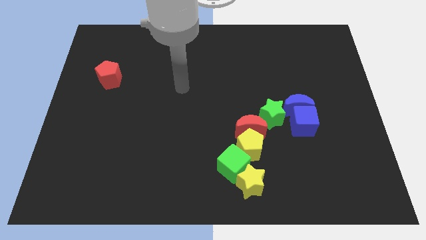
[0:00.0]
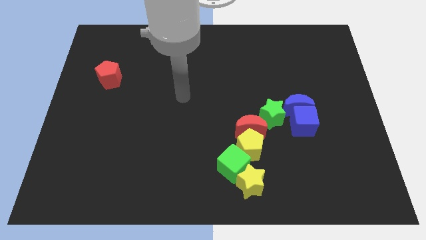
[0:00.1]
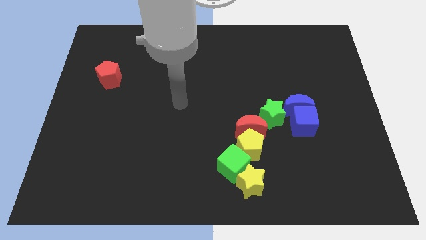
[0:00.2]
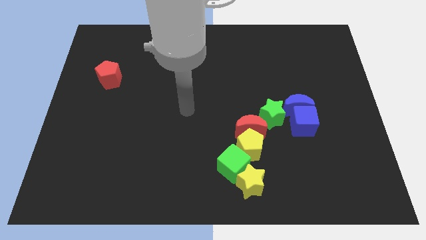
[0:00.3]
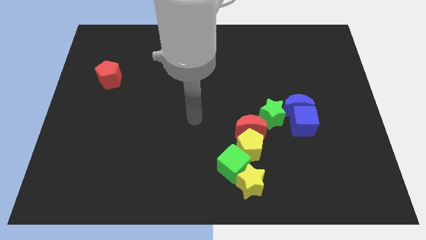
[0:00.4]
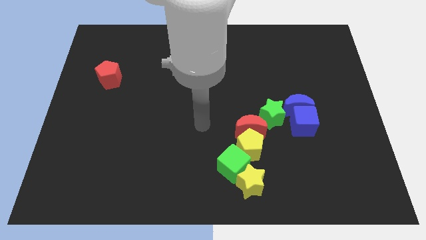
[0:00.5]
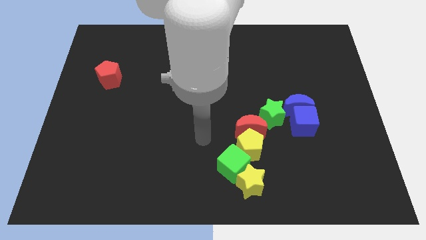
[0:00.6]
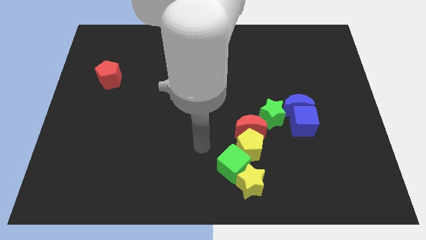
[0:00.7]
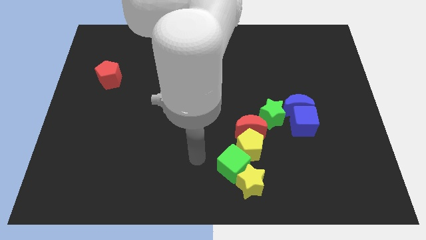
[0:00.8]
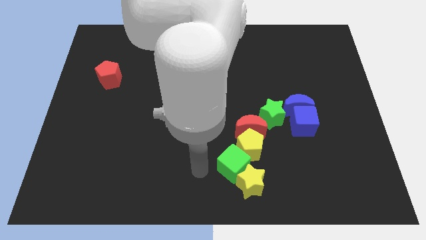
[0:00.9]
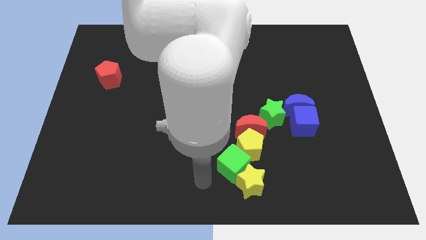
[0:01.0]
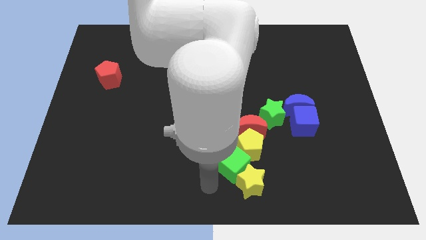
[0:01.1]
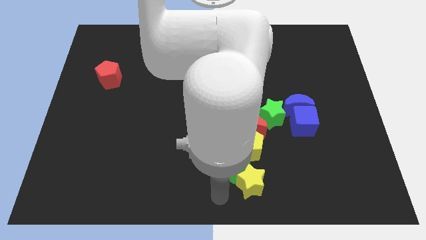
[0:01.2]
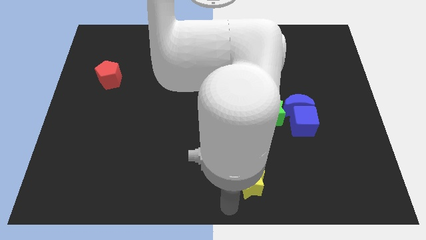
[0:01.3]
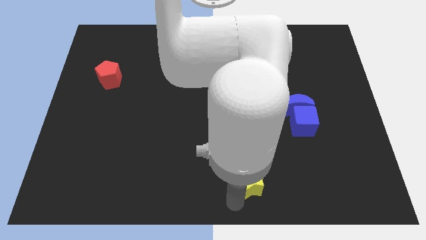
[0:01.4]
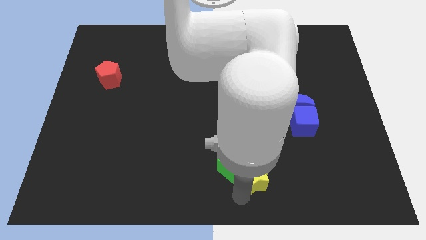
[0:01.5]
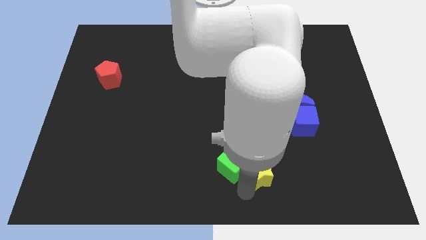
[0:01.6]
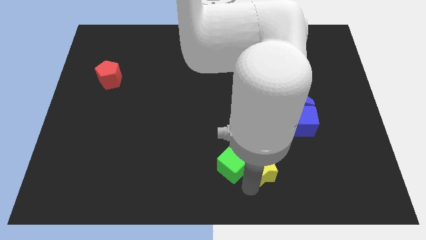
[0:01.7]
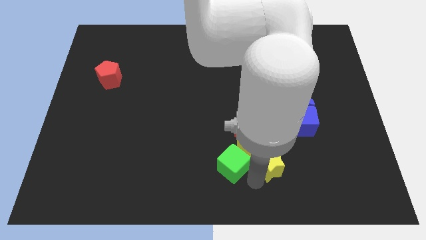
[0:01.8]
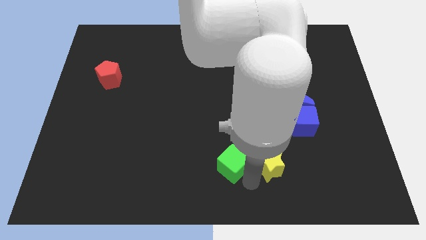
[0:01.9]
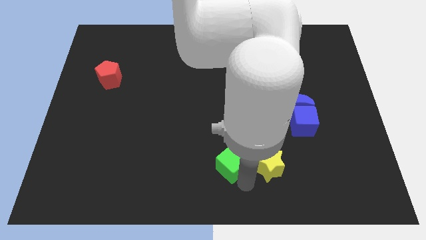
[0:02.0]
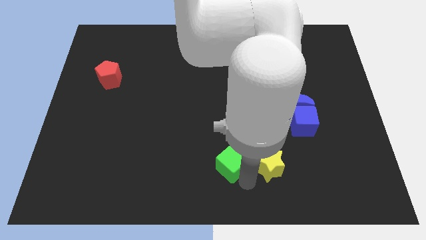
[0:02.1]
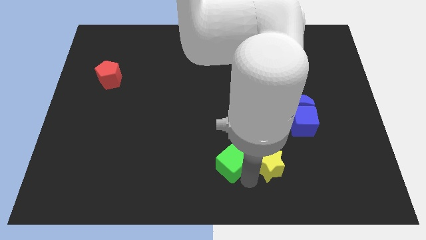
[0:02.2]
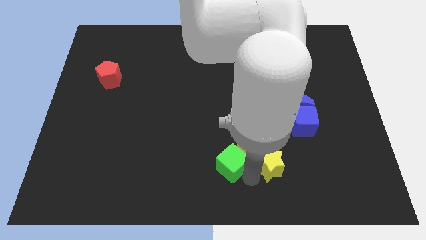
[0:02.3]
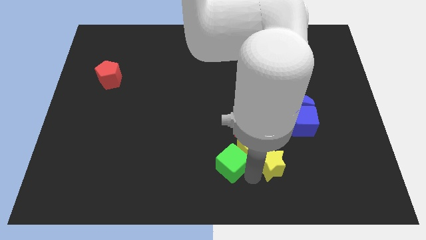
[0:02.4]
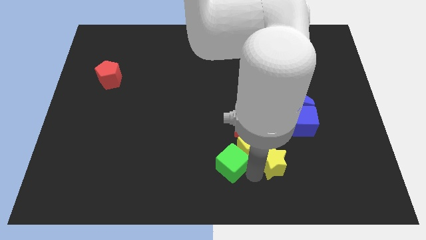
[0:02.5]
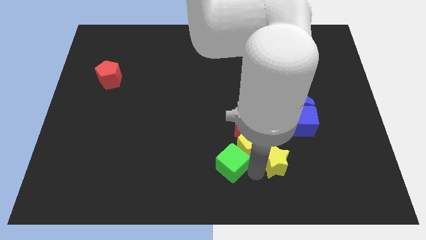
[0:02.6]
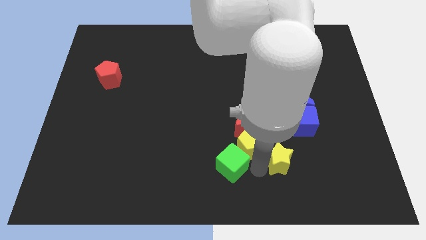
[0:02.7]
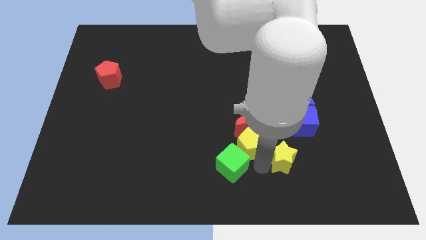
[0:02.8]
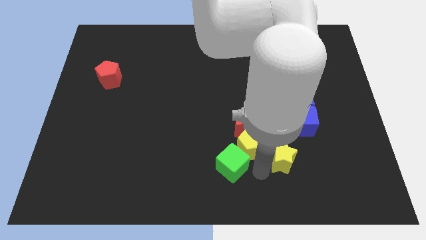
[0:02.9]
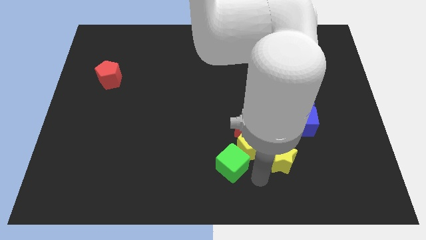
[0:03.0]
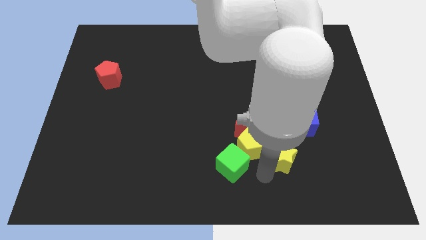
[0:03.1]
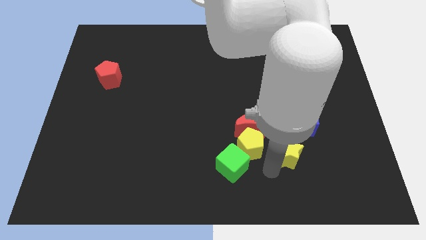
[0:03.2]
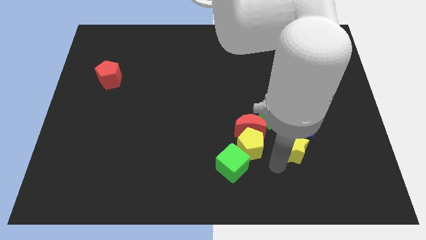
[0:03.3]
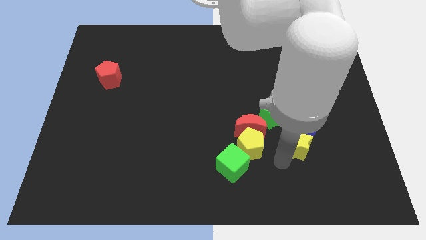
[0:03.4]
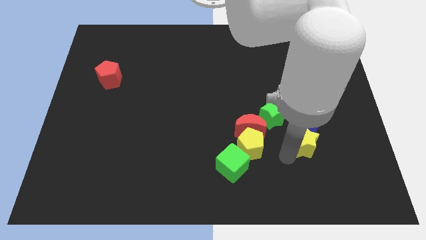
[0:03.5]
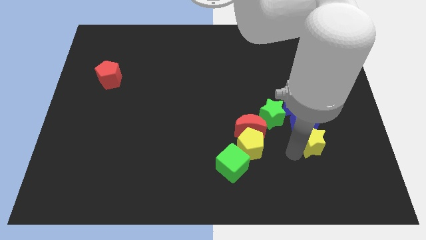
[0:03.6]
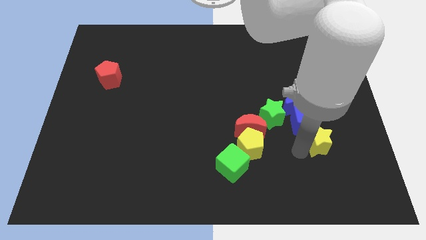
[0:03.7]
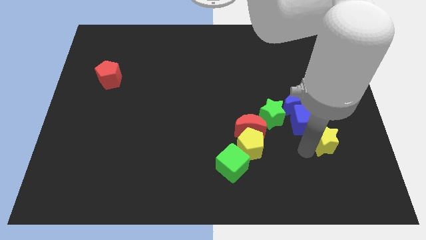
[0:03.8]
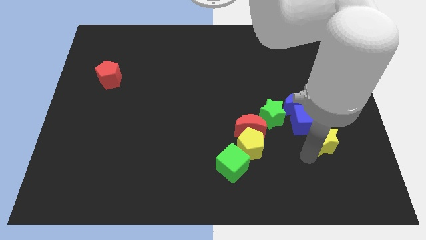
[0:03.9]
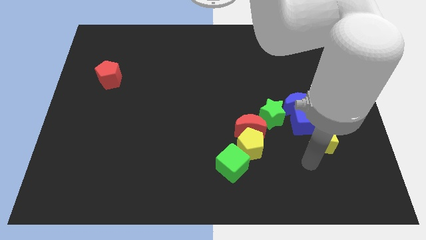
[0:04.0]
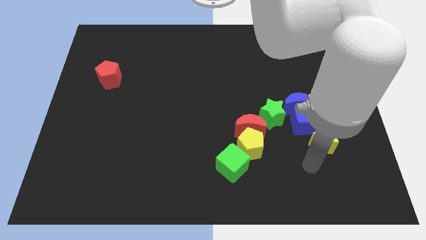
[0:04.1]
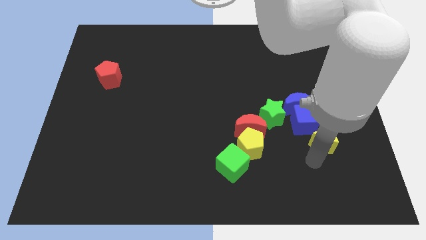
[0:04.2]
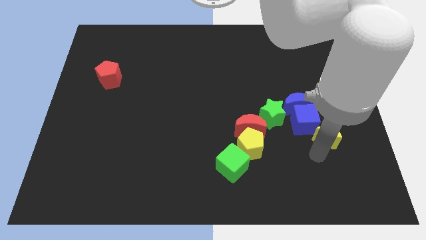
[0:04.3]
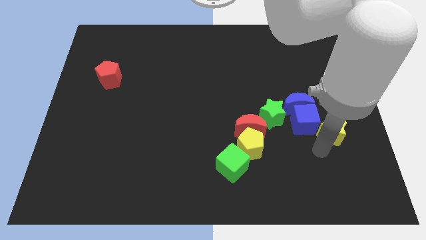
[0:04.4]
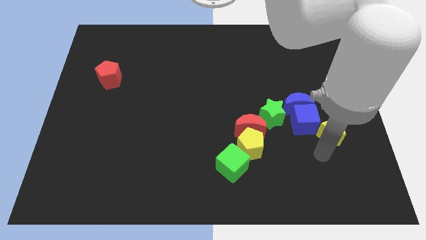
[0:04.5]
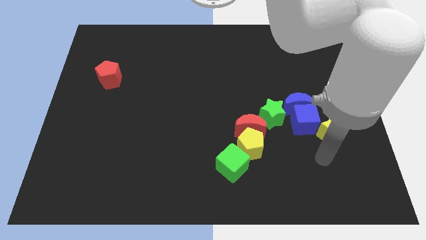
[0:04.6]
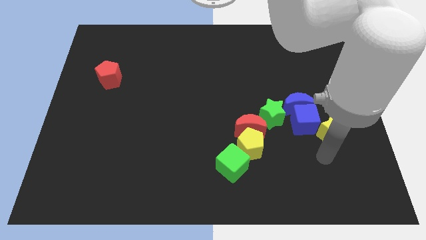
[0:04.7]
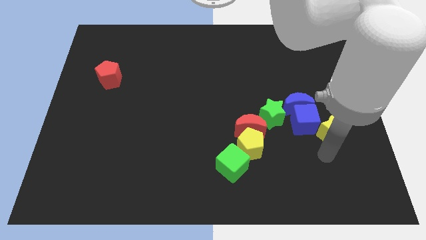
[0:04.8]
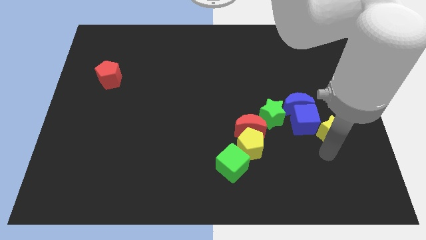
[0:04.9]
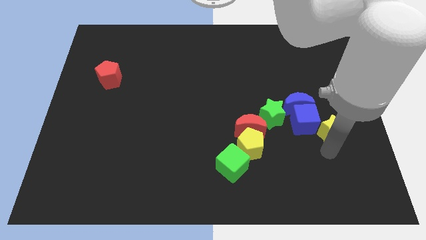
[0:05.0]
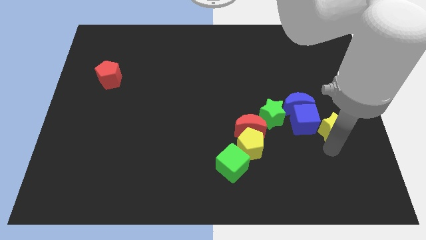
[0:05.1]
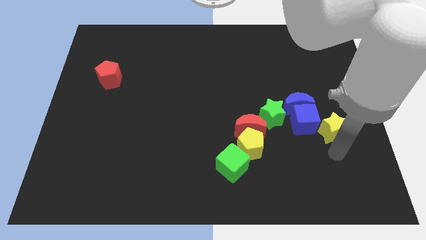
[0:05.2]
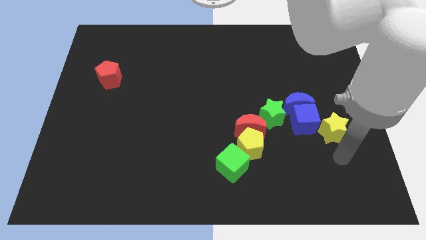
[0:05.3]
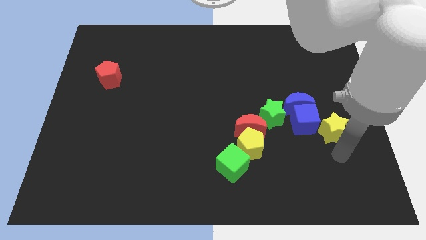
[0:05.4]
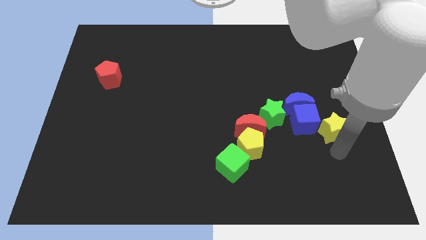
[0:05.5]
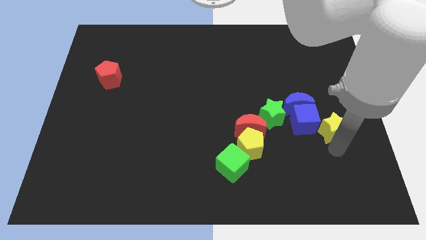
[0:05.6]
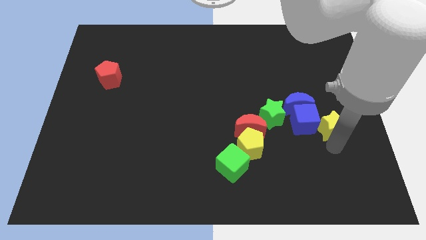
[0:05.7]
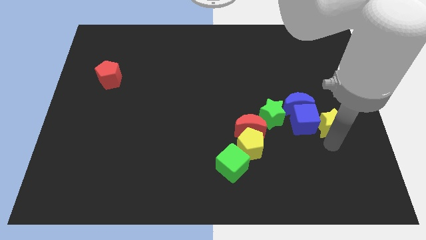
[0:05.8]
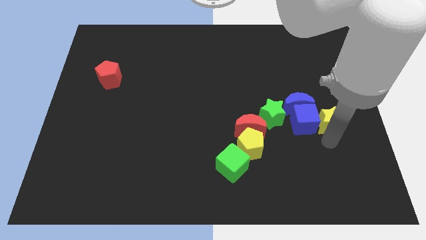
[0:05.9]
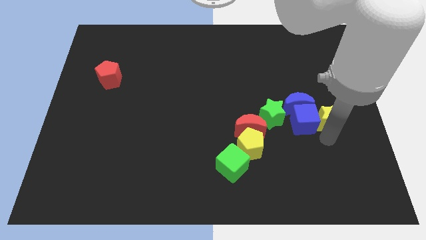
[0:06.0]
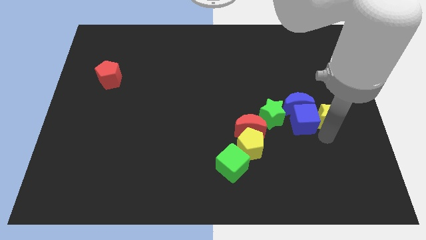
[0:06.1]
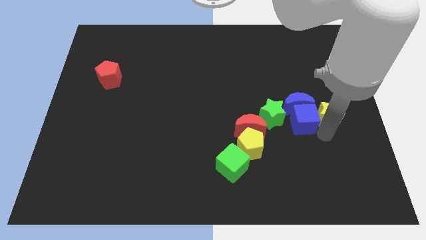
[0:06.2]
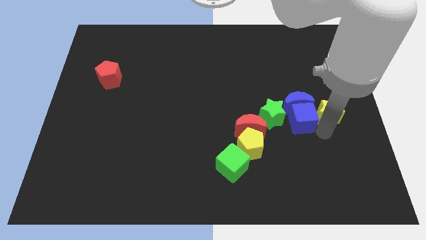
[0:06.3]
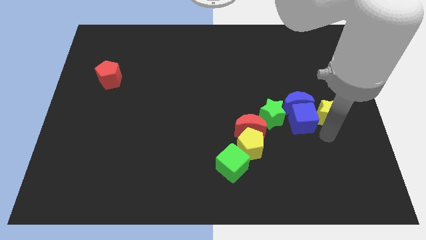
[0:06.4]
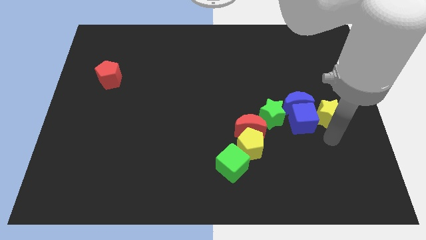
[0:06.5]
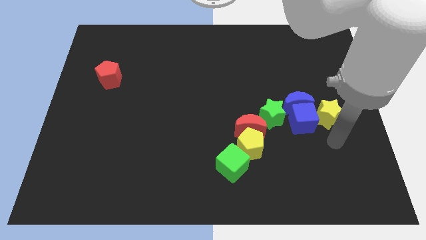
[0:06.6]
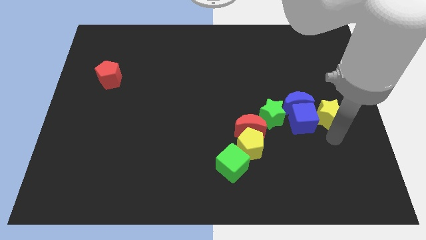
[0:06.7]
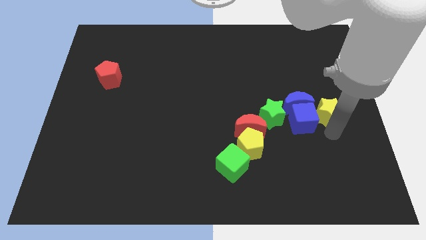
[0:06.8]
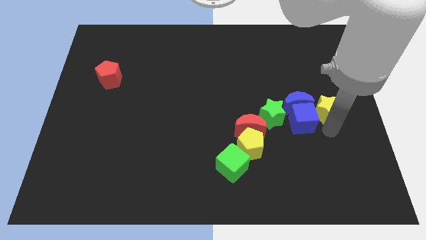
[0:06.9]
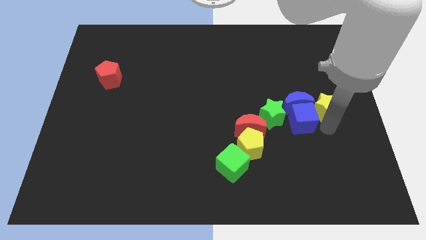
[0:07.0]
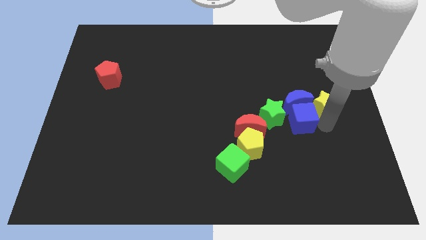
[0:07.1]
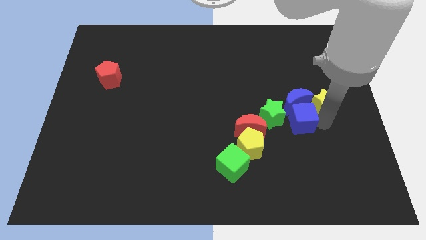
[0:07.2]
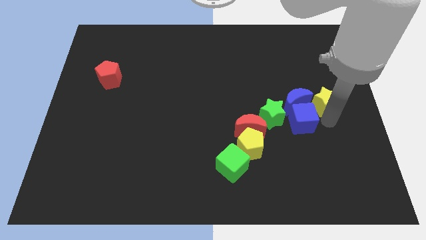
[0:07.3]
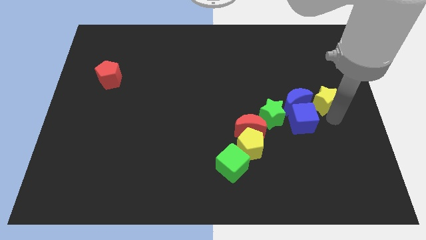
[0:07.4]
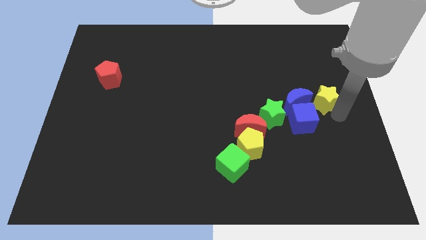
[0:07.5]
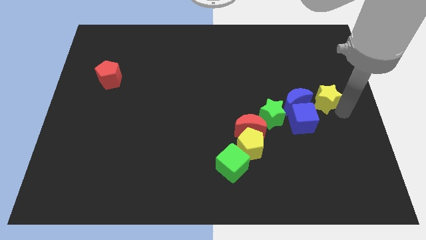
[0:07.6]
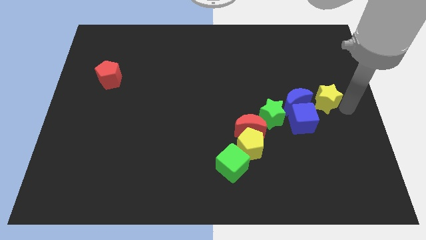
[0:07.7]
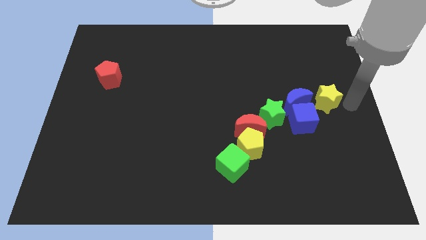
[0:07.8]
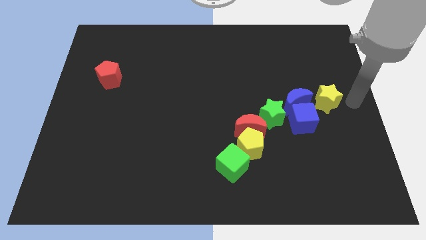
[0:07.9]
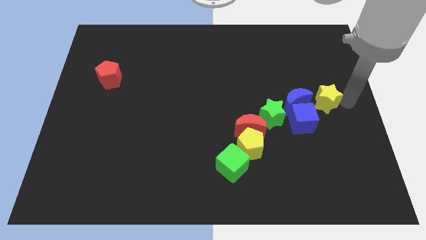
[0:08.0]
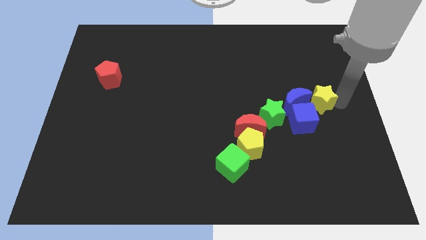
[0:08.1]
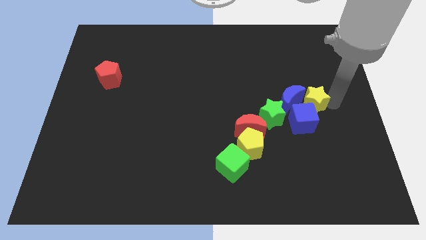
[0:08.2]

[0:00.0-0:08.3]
put the yellow star next to the blue moon
